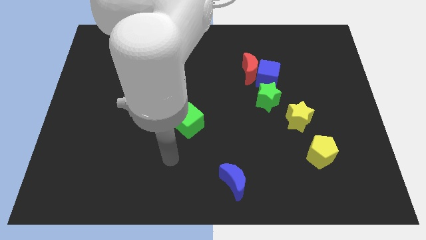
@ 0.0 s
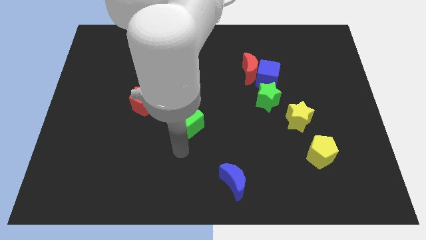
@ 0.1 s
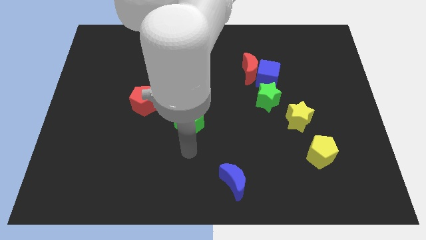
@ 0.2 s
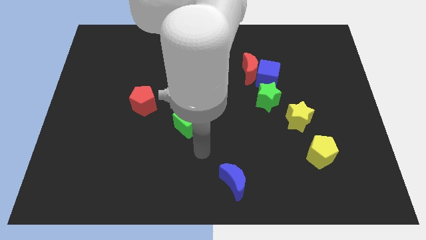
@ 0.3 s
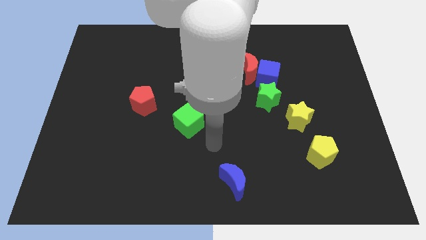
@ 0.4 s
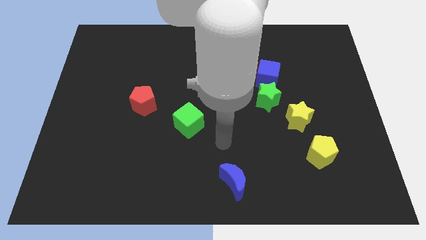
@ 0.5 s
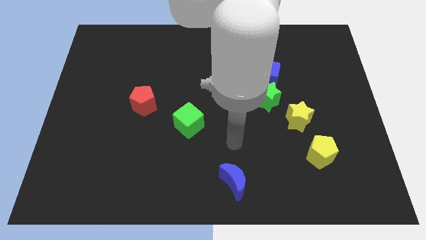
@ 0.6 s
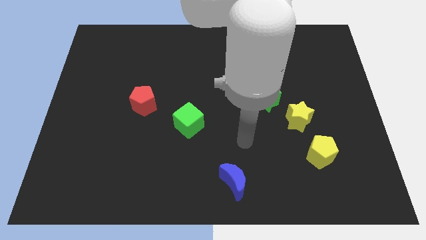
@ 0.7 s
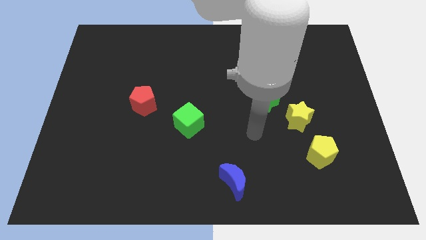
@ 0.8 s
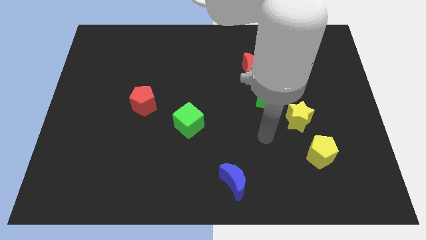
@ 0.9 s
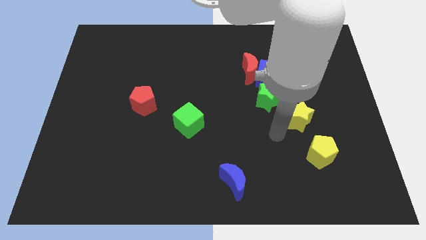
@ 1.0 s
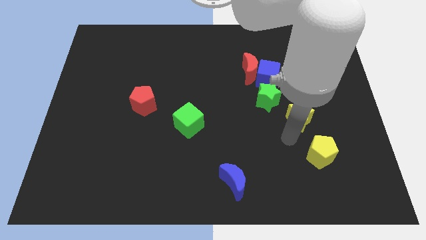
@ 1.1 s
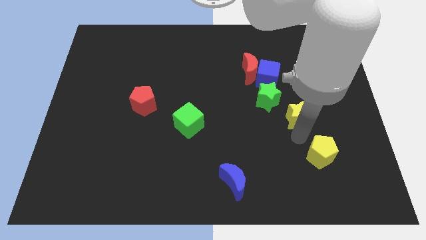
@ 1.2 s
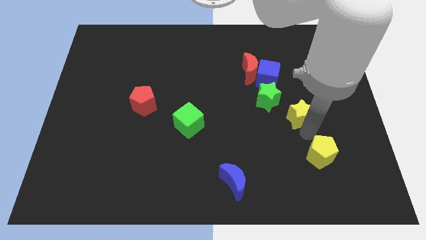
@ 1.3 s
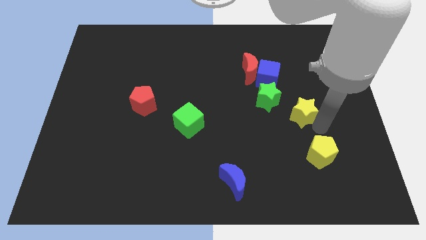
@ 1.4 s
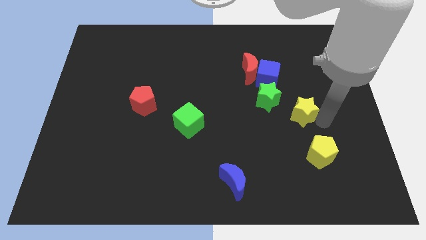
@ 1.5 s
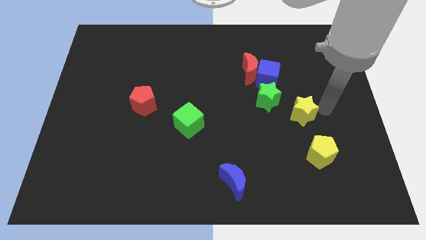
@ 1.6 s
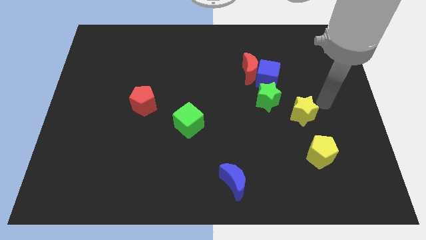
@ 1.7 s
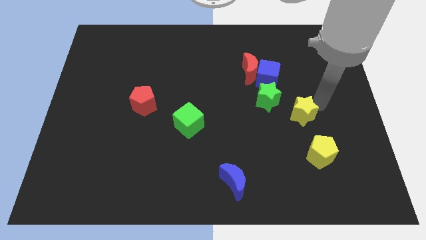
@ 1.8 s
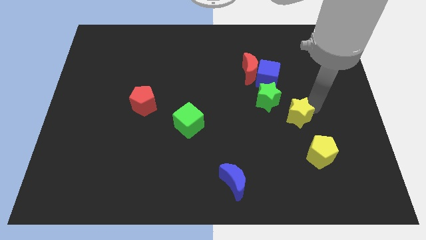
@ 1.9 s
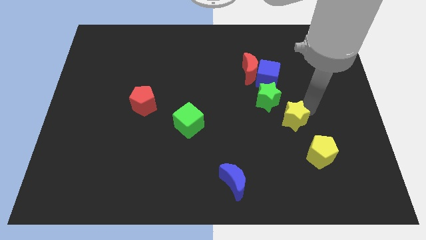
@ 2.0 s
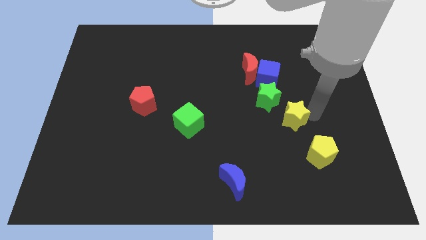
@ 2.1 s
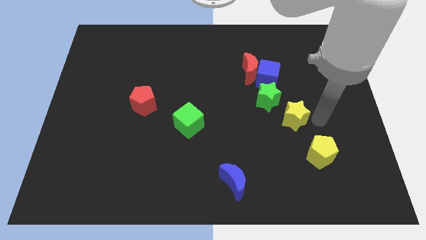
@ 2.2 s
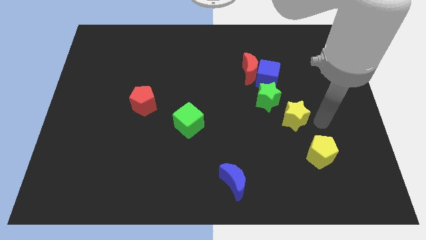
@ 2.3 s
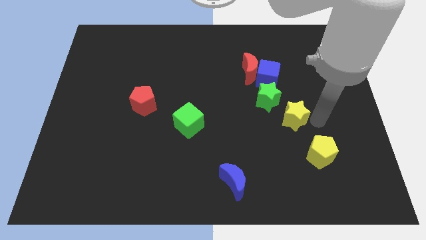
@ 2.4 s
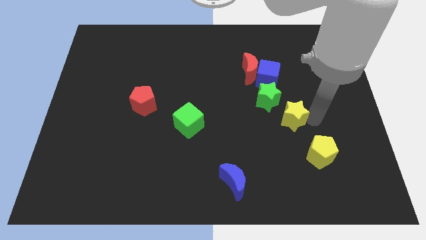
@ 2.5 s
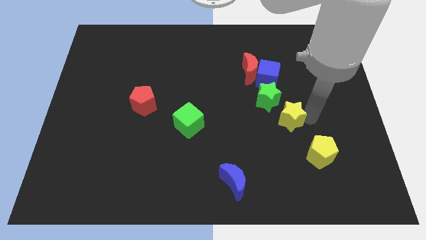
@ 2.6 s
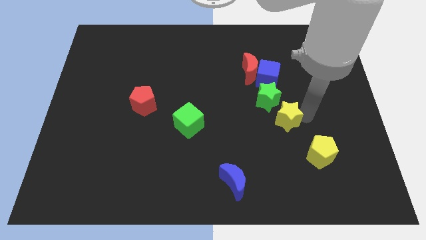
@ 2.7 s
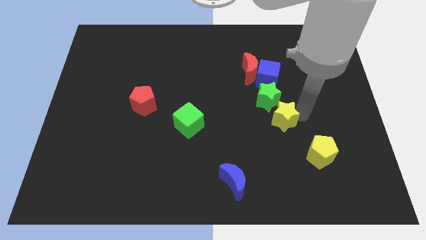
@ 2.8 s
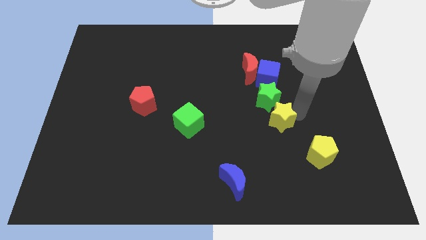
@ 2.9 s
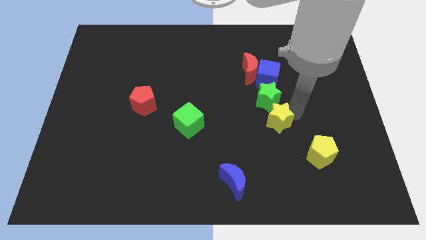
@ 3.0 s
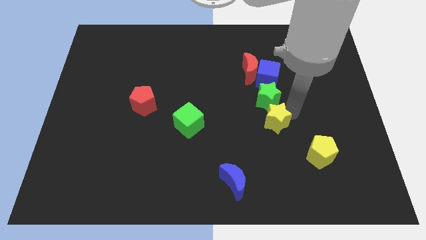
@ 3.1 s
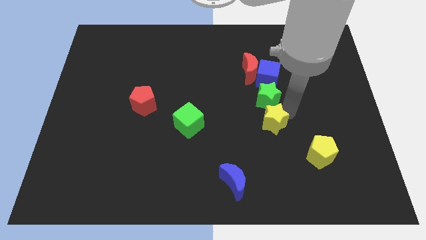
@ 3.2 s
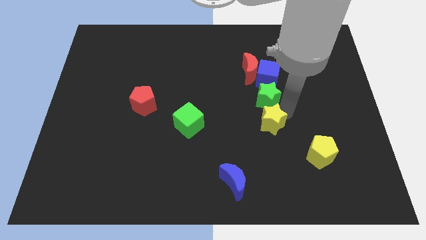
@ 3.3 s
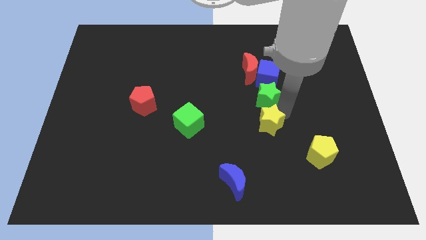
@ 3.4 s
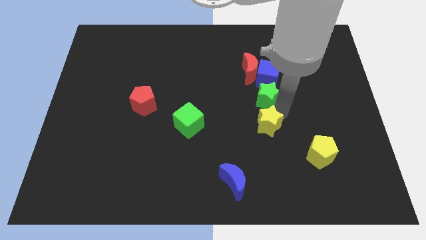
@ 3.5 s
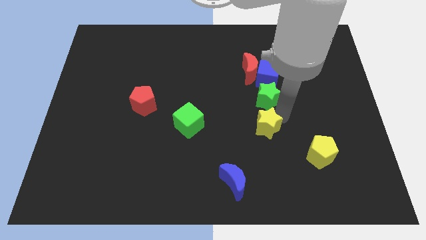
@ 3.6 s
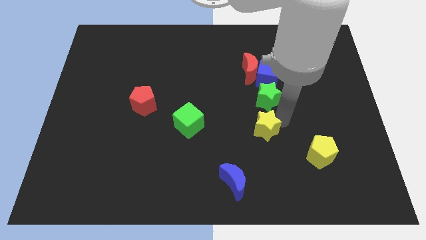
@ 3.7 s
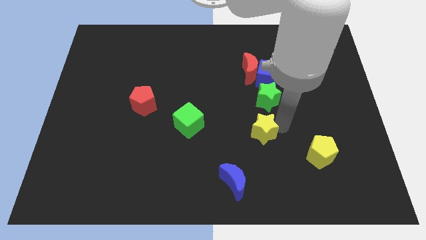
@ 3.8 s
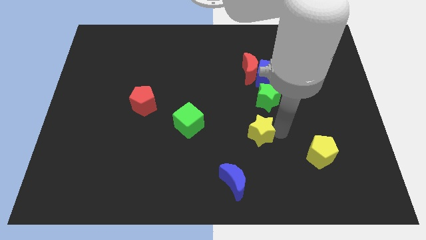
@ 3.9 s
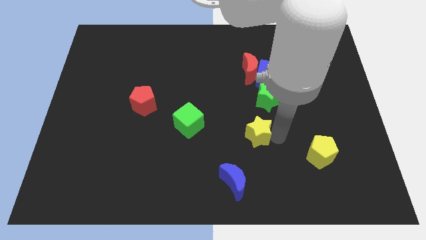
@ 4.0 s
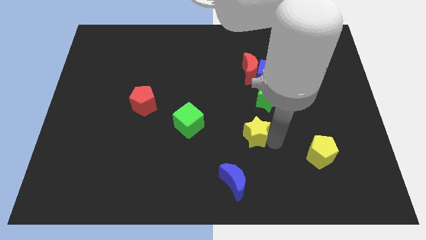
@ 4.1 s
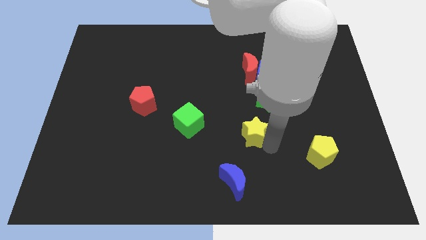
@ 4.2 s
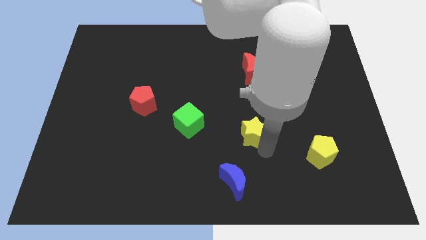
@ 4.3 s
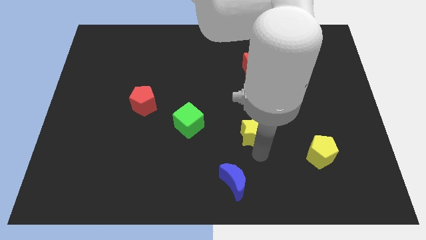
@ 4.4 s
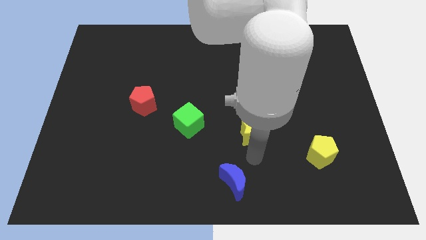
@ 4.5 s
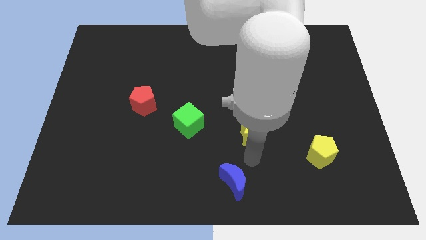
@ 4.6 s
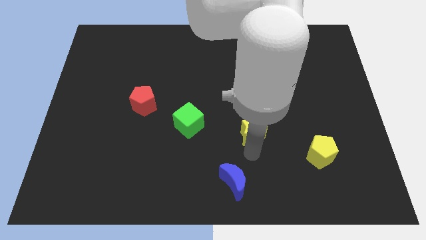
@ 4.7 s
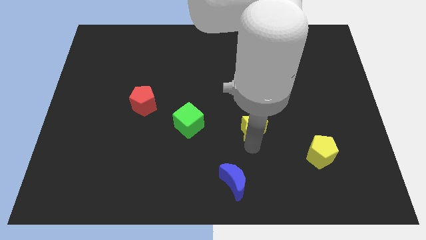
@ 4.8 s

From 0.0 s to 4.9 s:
slide the yellow star to the center

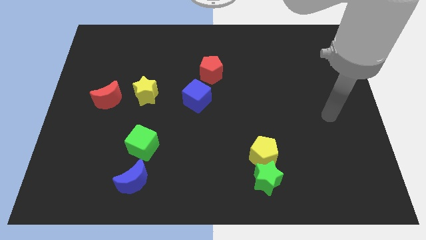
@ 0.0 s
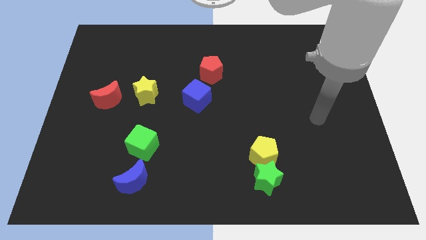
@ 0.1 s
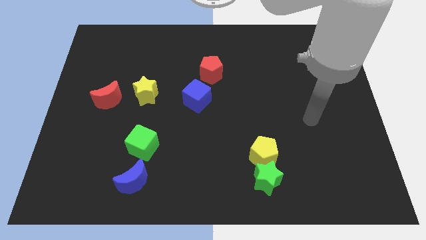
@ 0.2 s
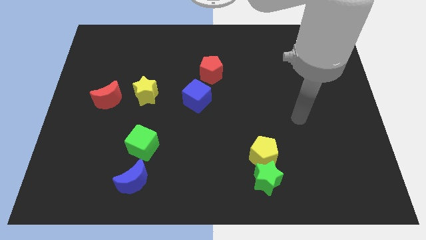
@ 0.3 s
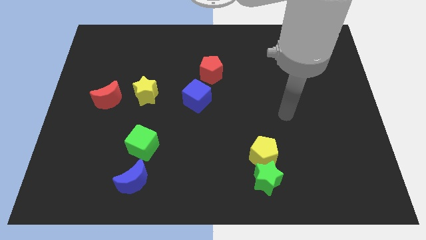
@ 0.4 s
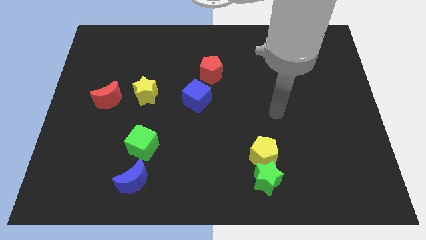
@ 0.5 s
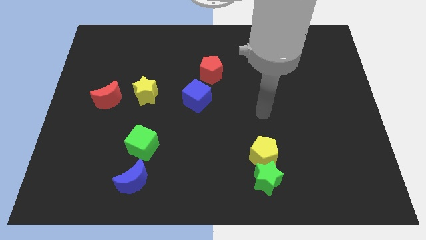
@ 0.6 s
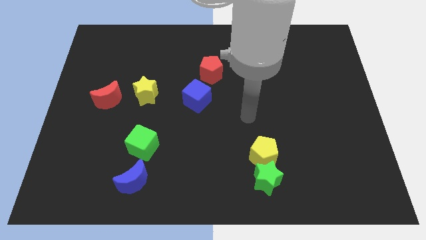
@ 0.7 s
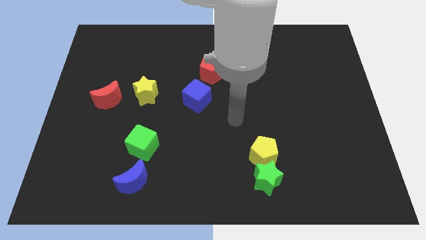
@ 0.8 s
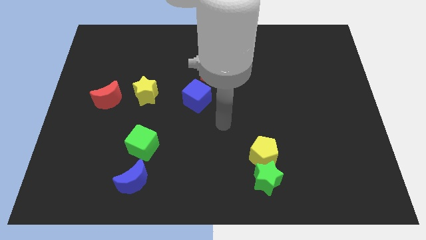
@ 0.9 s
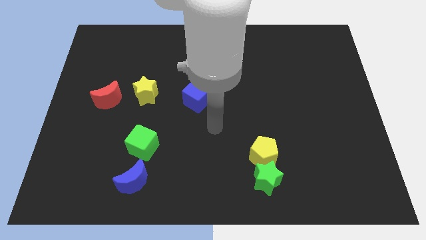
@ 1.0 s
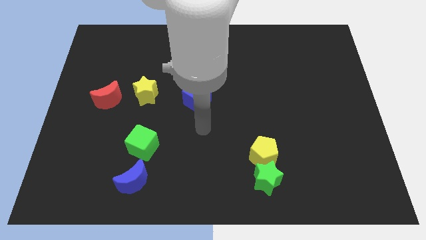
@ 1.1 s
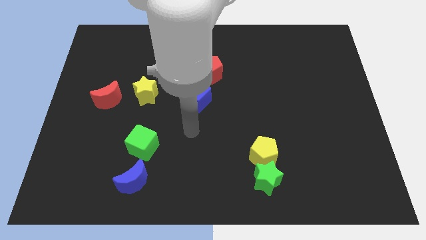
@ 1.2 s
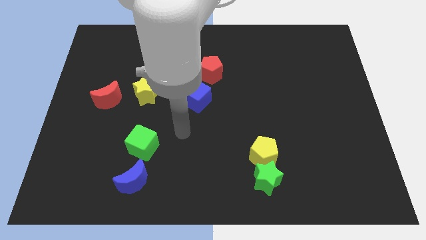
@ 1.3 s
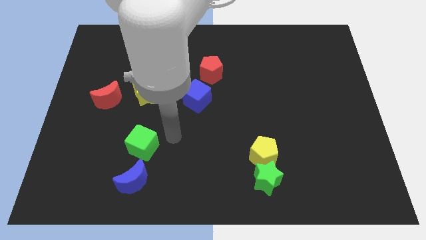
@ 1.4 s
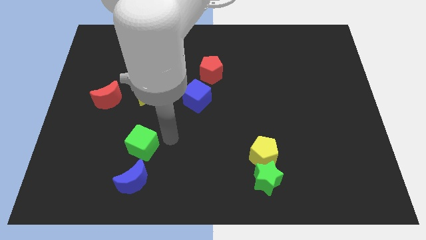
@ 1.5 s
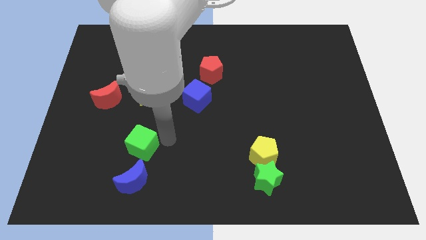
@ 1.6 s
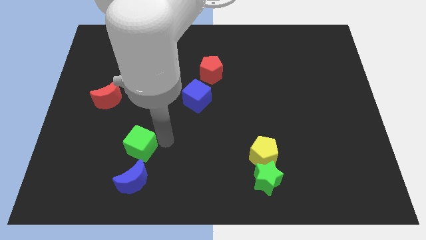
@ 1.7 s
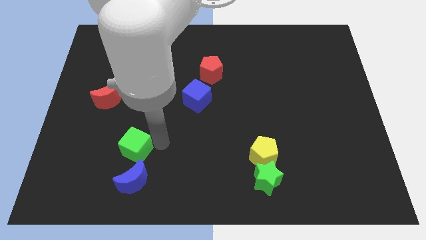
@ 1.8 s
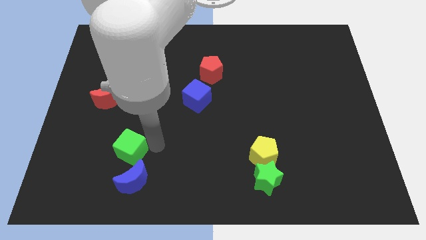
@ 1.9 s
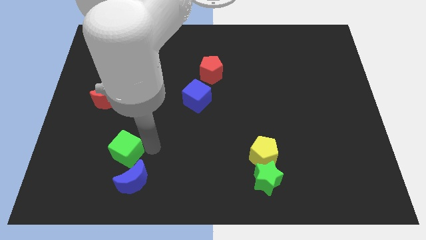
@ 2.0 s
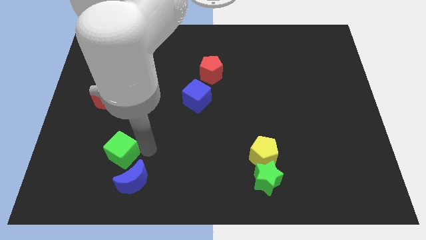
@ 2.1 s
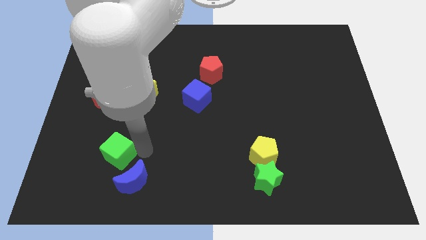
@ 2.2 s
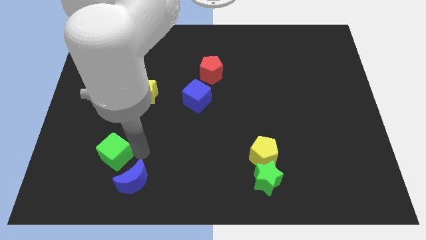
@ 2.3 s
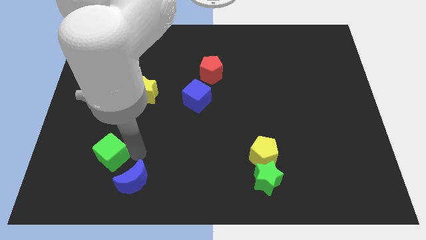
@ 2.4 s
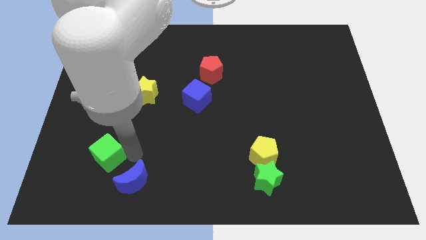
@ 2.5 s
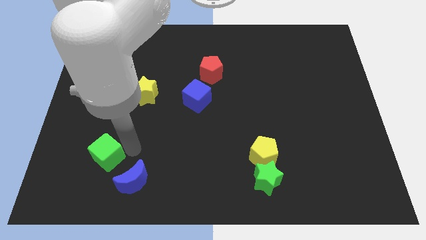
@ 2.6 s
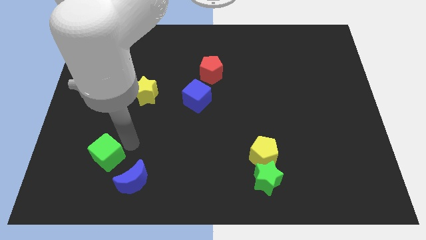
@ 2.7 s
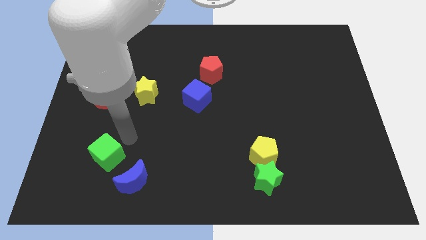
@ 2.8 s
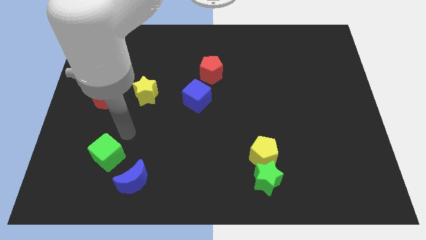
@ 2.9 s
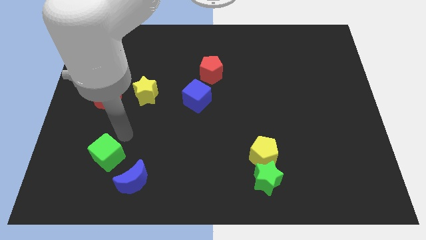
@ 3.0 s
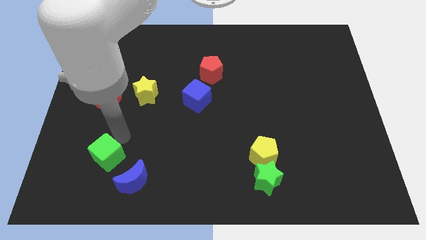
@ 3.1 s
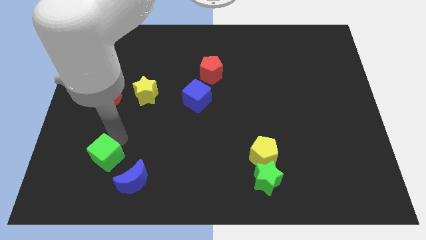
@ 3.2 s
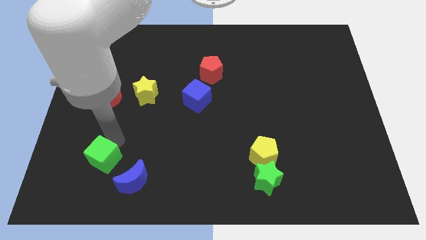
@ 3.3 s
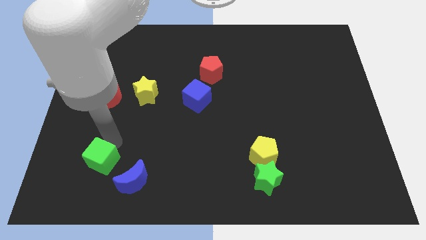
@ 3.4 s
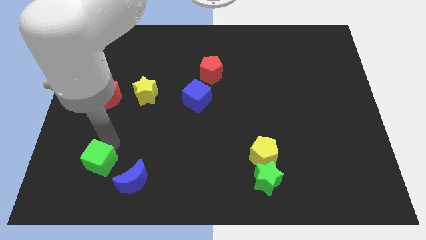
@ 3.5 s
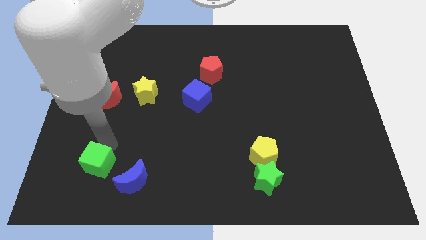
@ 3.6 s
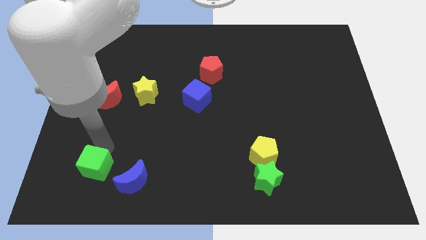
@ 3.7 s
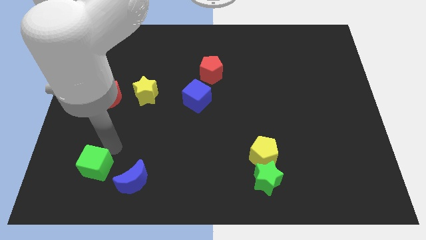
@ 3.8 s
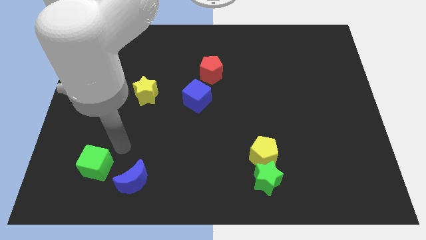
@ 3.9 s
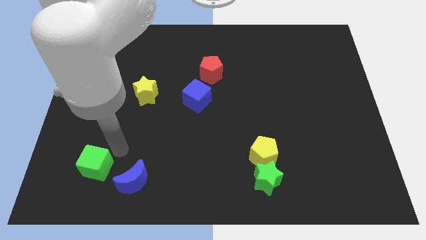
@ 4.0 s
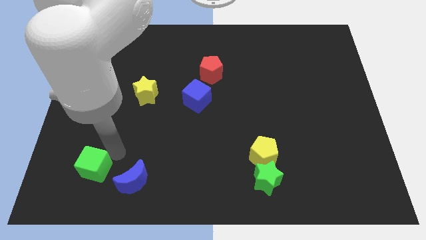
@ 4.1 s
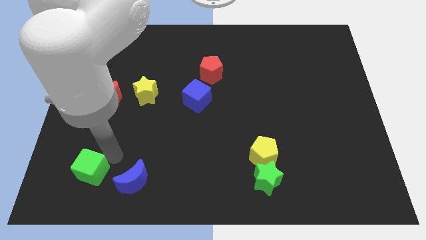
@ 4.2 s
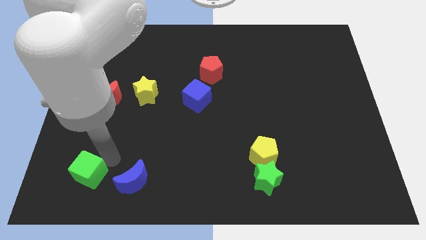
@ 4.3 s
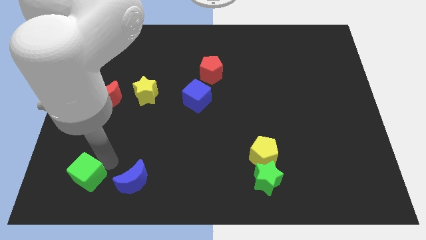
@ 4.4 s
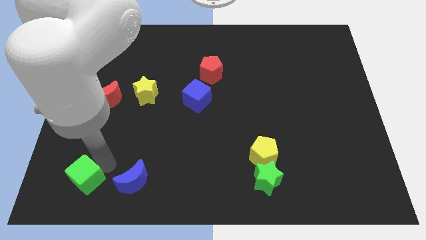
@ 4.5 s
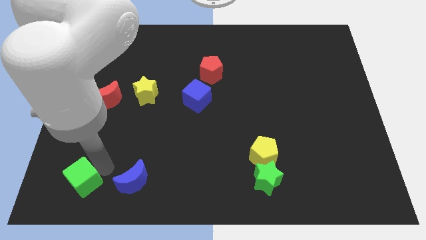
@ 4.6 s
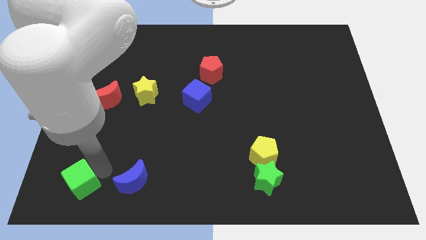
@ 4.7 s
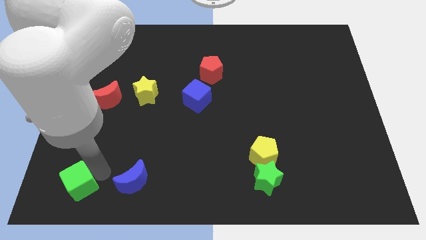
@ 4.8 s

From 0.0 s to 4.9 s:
push the green cube to the bottom left
